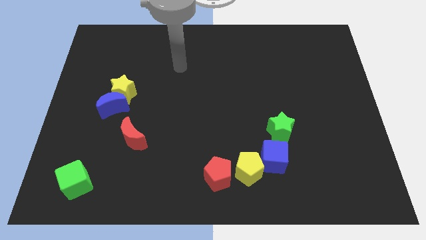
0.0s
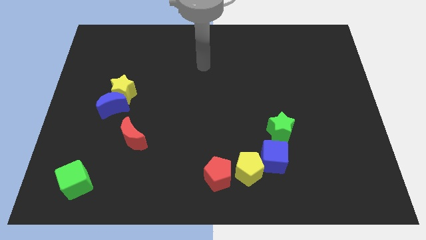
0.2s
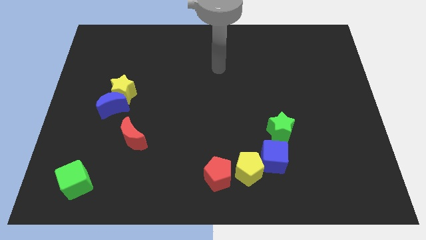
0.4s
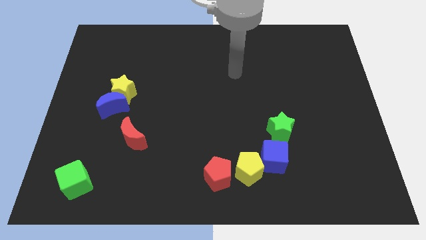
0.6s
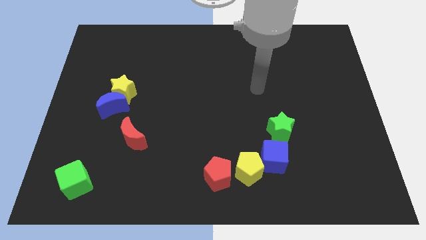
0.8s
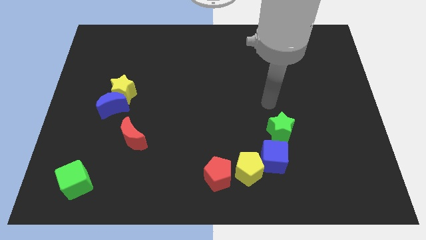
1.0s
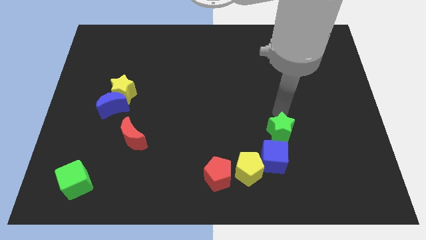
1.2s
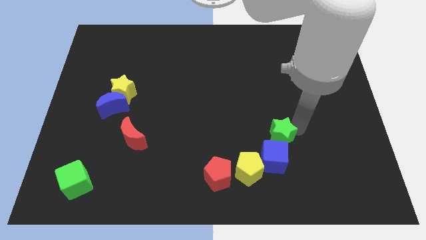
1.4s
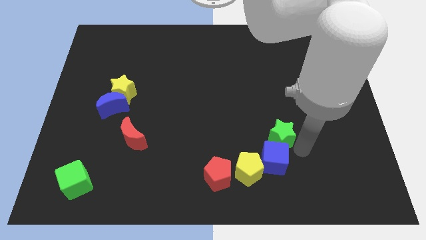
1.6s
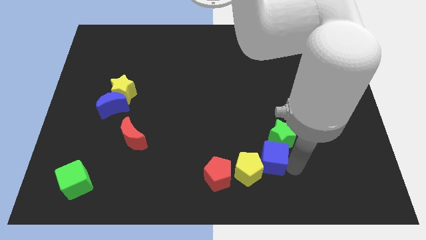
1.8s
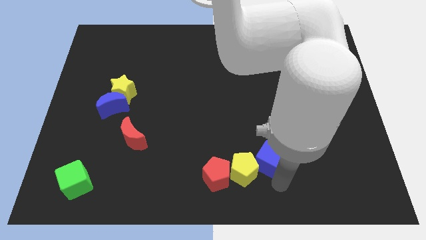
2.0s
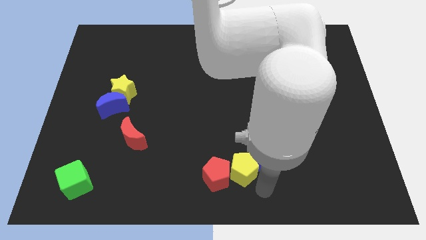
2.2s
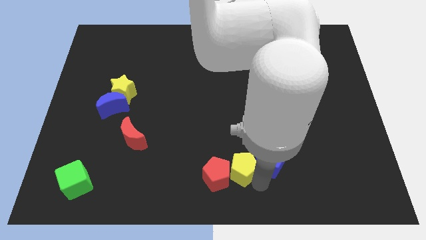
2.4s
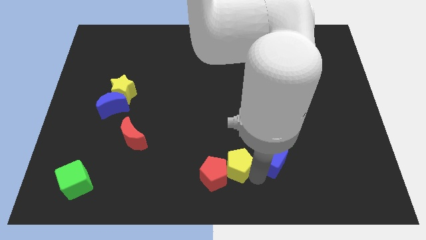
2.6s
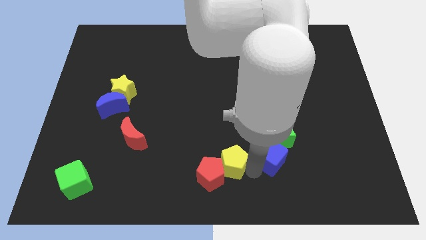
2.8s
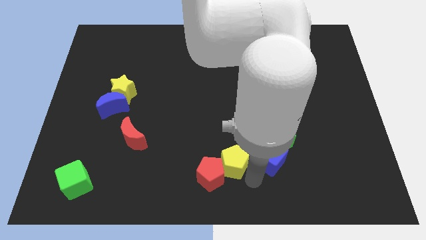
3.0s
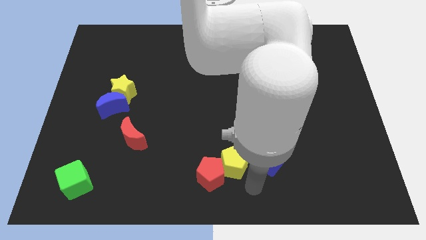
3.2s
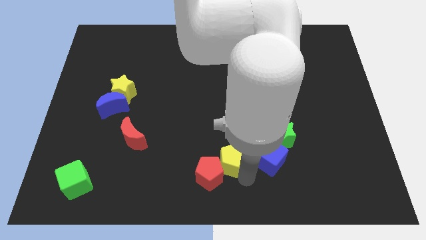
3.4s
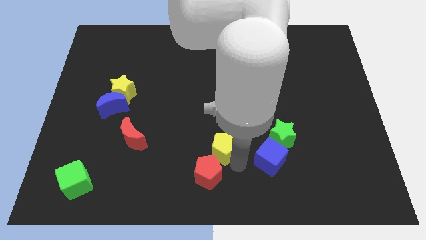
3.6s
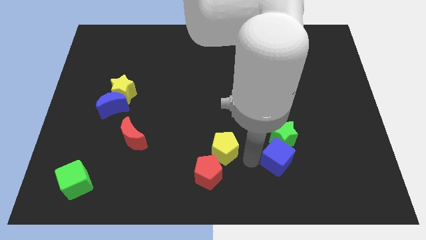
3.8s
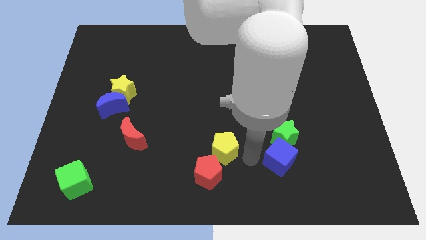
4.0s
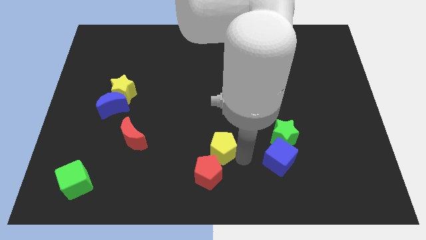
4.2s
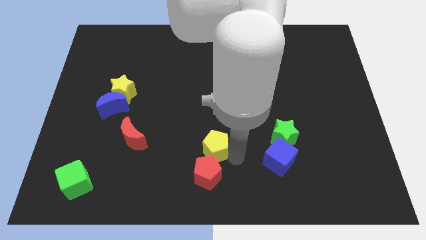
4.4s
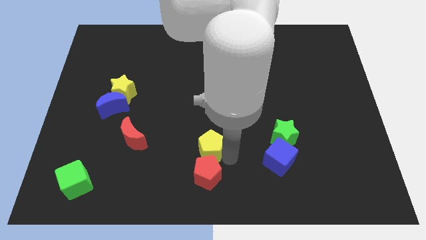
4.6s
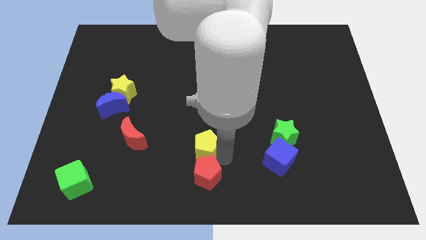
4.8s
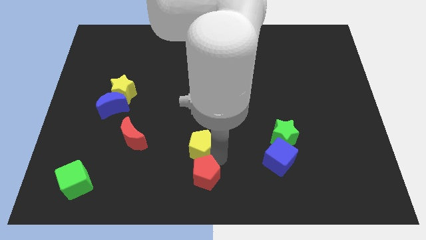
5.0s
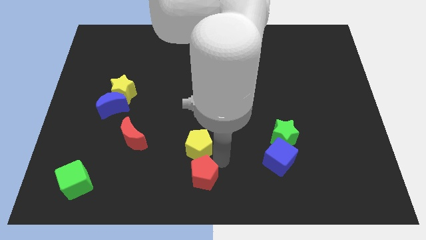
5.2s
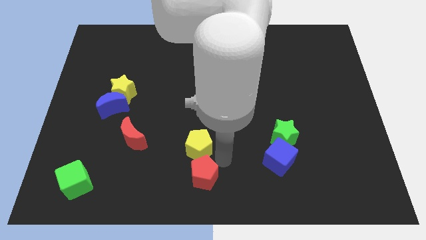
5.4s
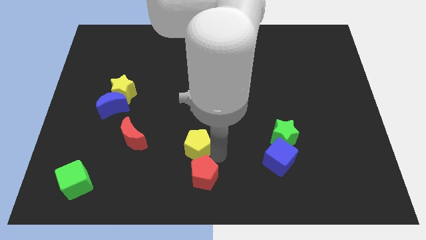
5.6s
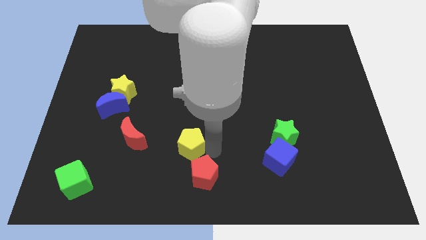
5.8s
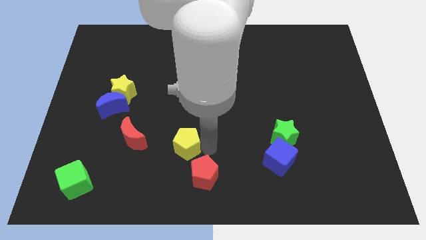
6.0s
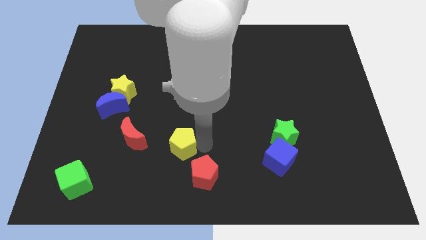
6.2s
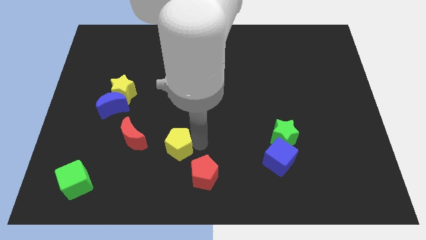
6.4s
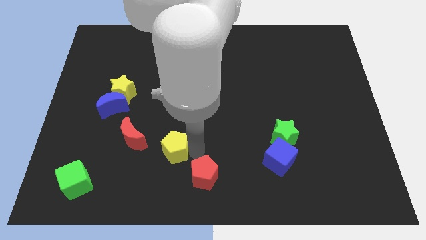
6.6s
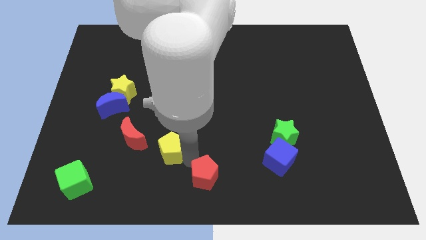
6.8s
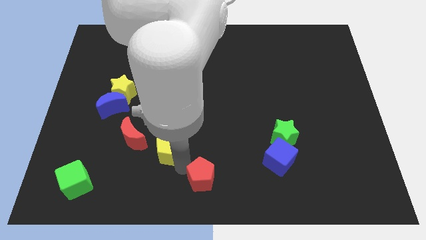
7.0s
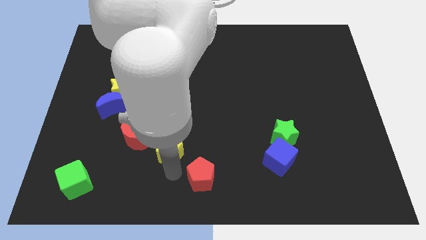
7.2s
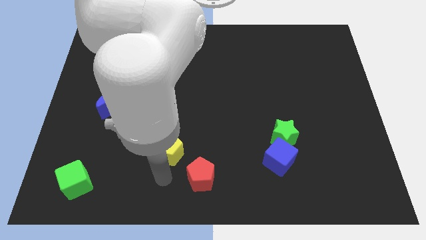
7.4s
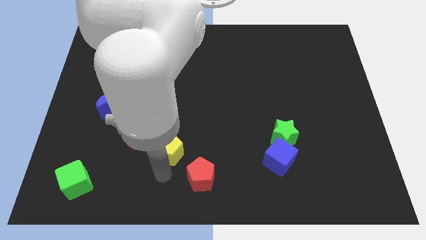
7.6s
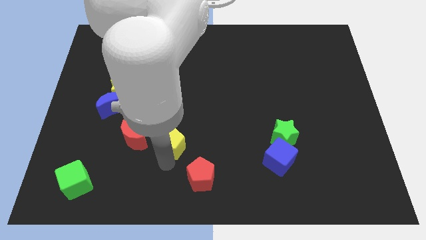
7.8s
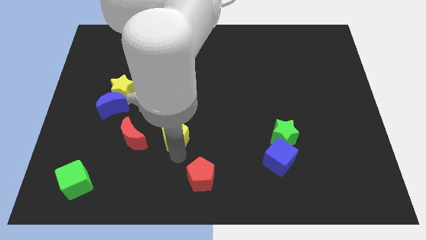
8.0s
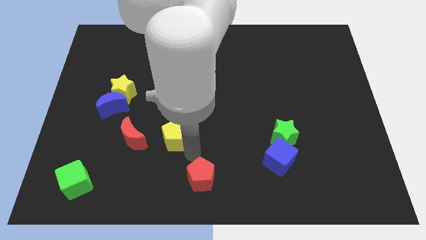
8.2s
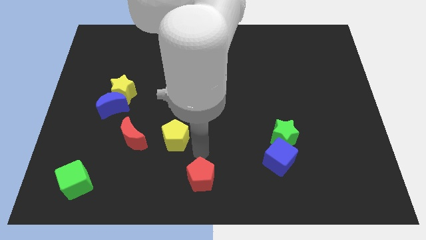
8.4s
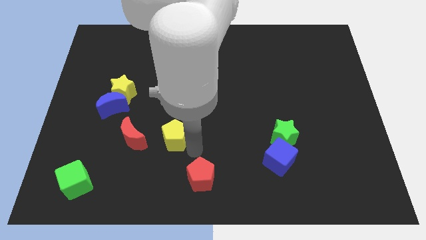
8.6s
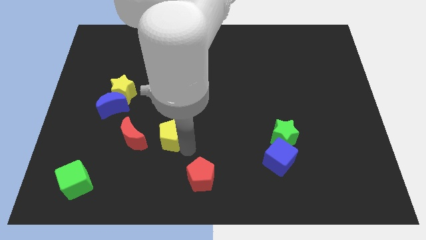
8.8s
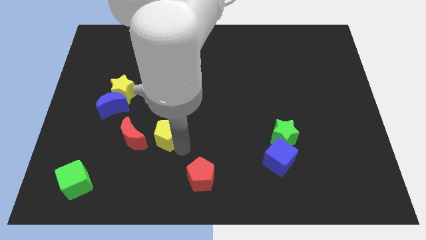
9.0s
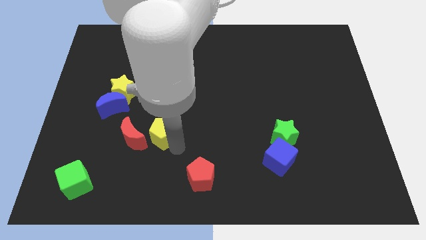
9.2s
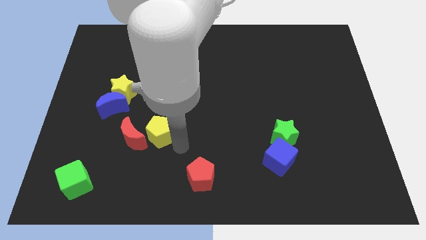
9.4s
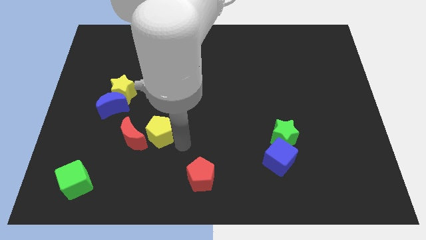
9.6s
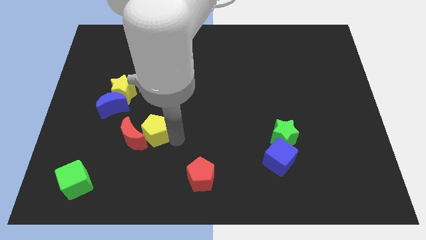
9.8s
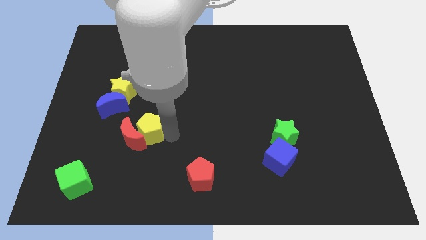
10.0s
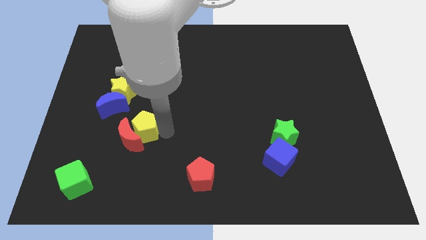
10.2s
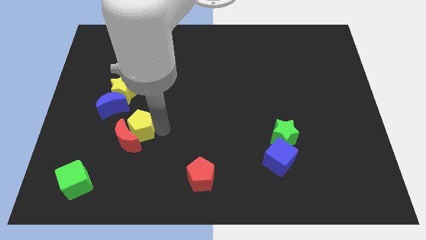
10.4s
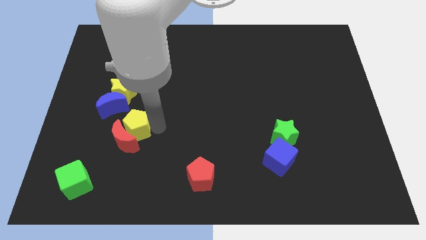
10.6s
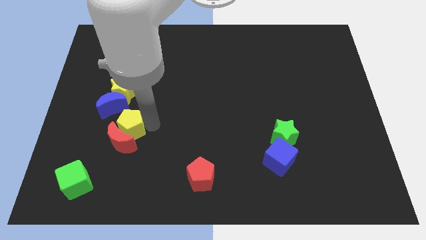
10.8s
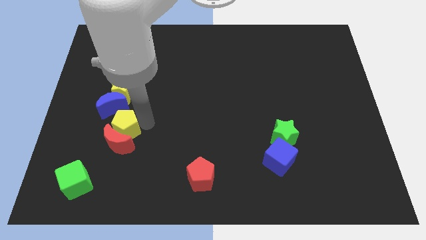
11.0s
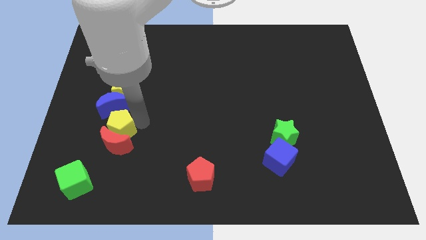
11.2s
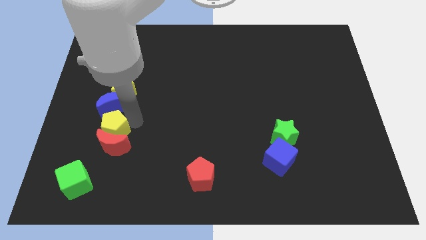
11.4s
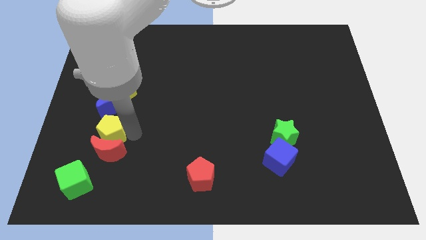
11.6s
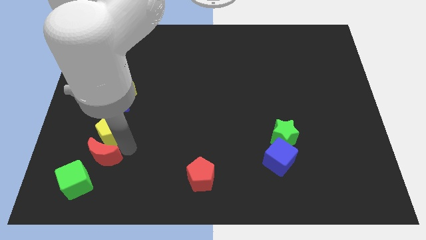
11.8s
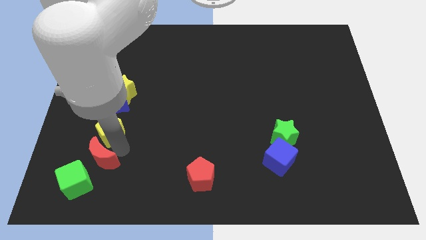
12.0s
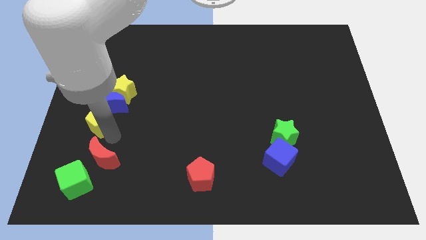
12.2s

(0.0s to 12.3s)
slide the yellow pentagon to the bottom left side of the yellow star

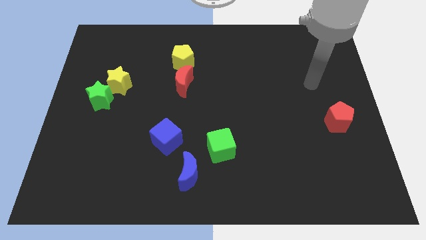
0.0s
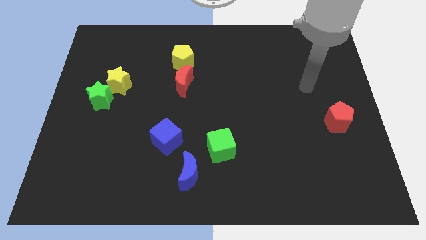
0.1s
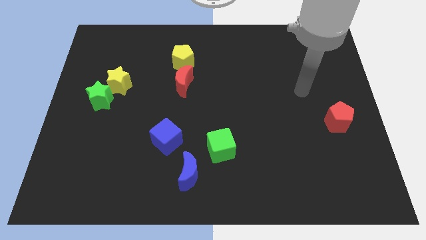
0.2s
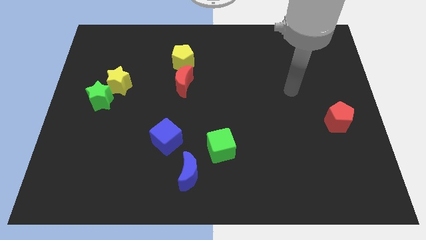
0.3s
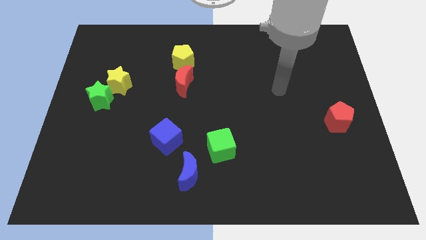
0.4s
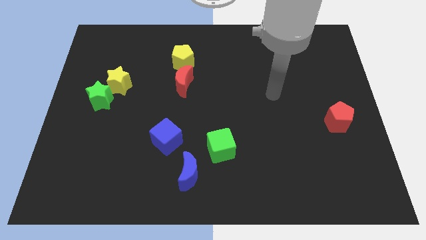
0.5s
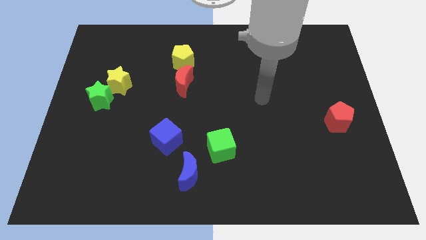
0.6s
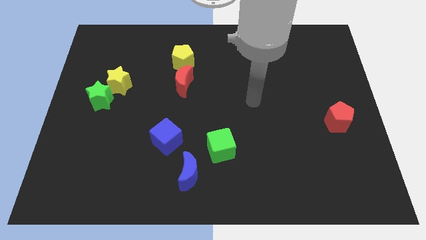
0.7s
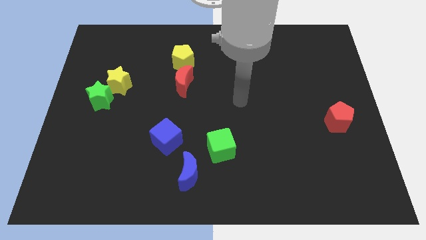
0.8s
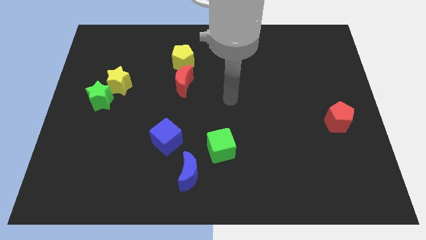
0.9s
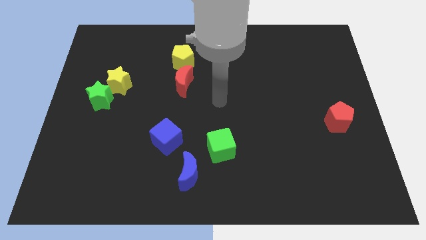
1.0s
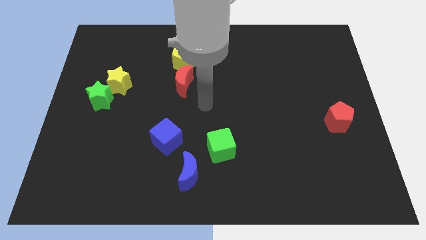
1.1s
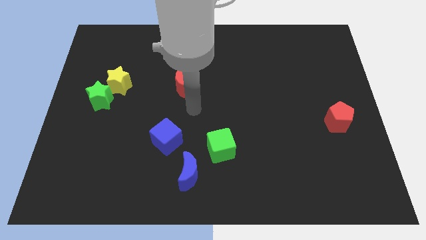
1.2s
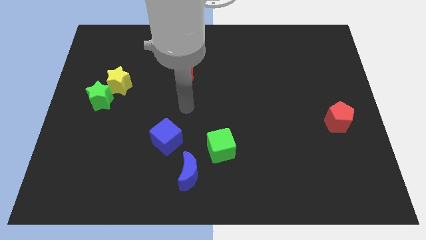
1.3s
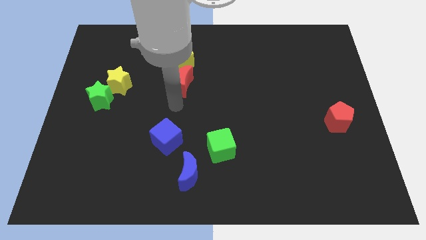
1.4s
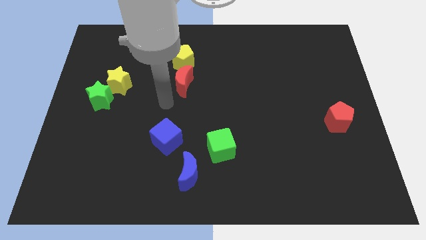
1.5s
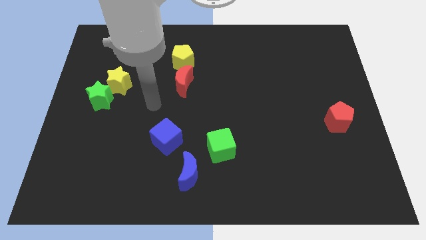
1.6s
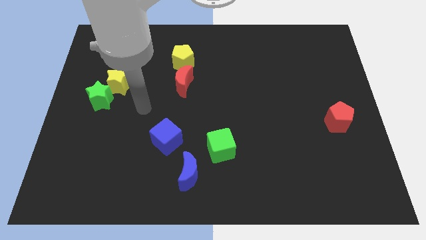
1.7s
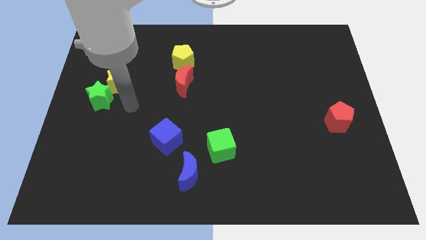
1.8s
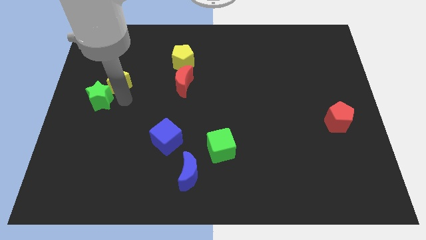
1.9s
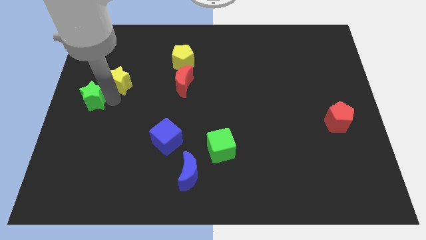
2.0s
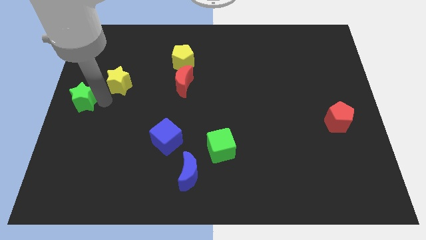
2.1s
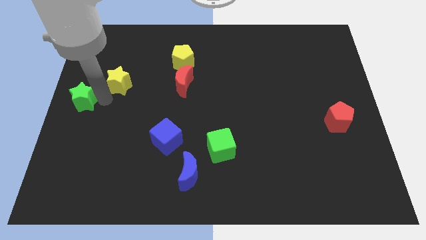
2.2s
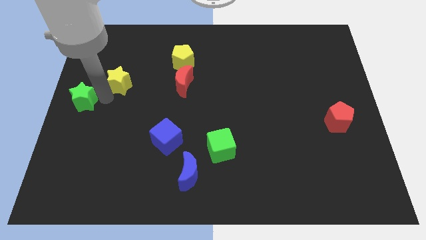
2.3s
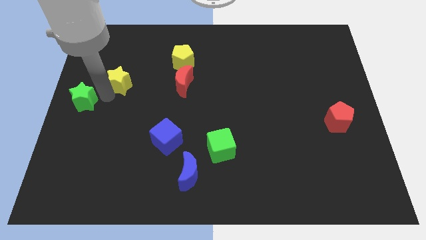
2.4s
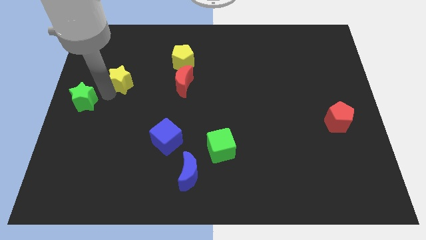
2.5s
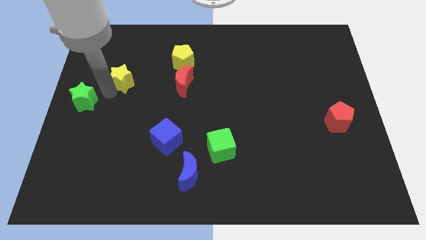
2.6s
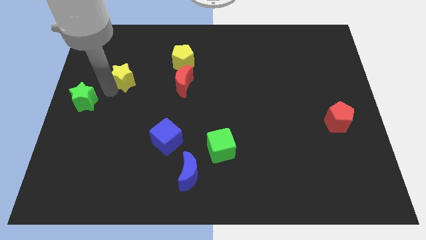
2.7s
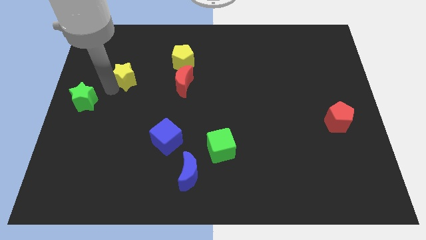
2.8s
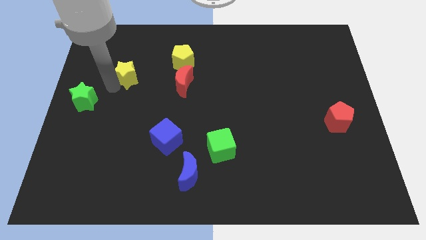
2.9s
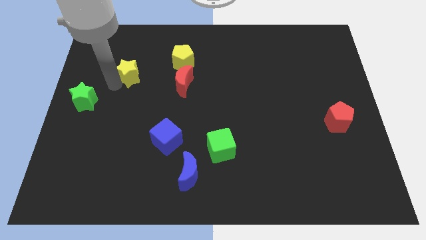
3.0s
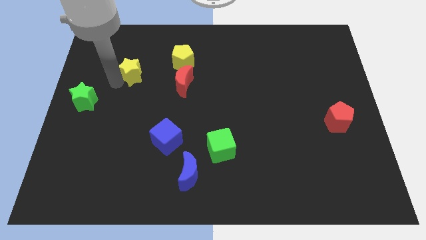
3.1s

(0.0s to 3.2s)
push the yellow star to the left of the yellow pentagon
